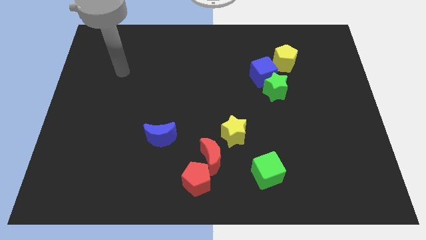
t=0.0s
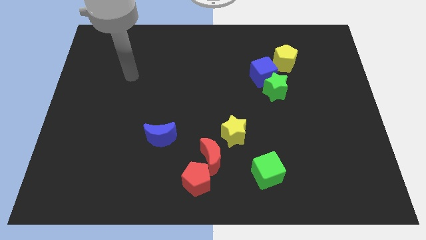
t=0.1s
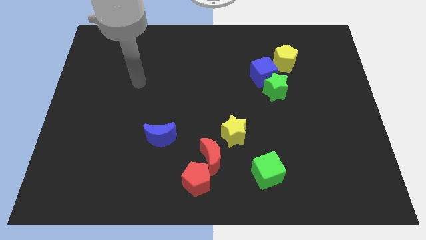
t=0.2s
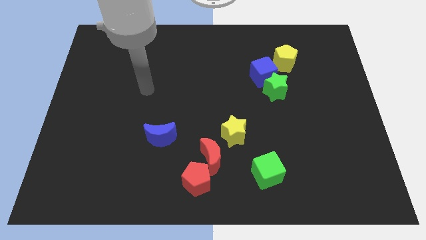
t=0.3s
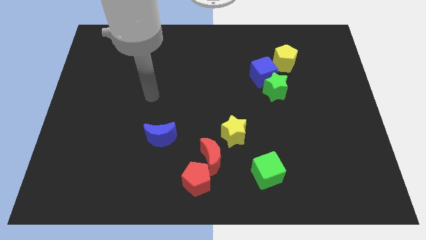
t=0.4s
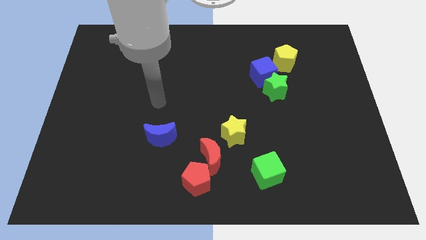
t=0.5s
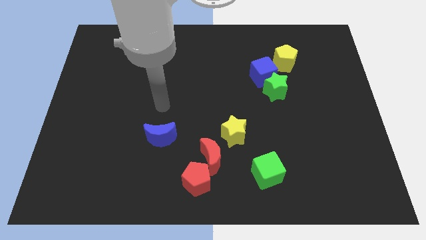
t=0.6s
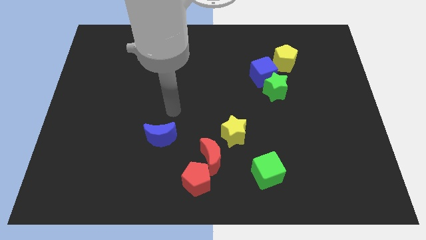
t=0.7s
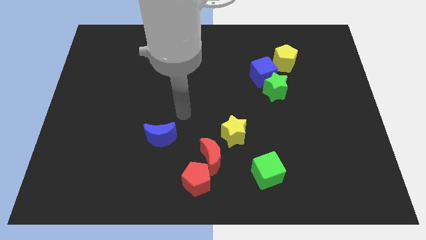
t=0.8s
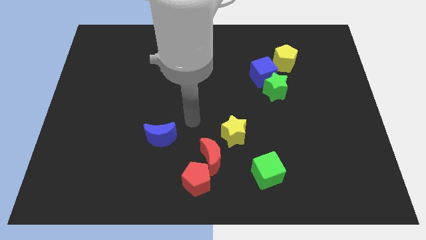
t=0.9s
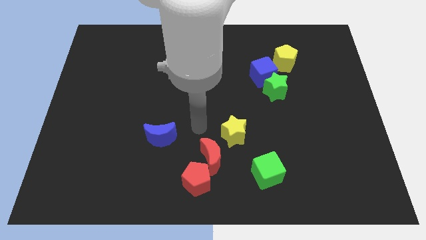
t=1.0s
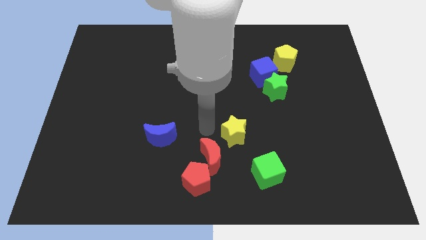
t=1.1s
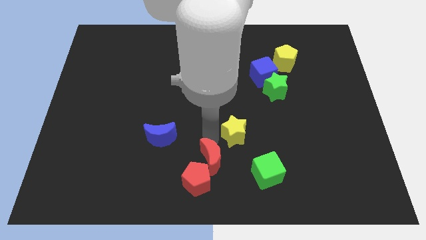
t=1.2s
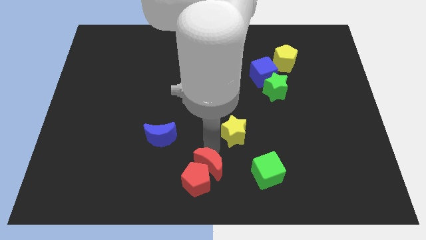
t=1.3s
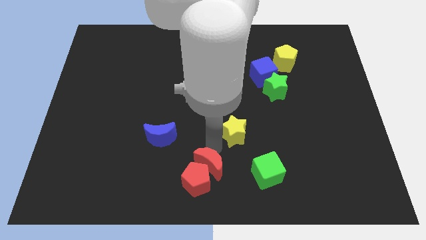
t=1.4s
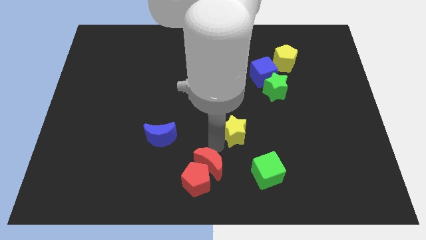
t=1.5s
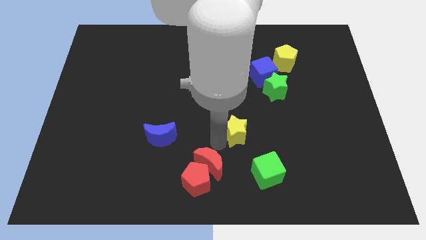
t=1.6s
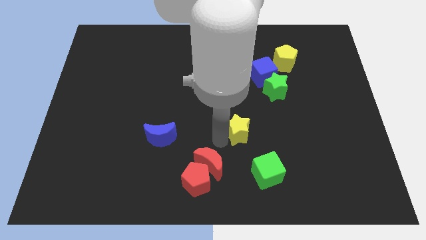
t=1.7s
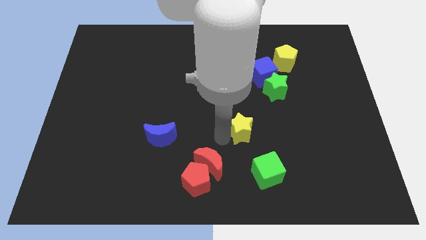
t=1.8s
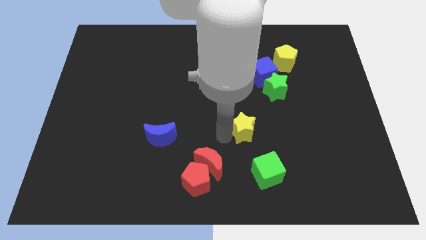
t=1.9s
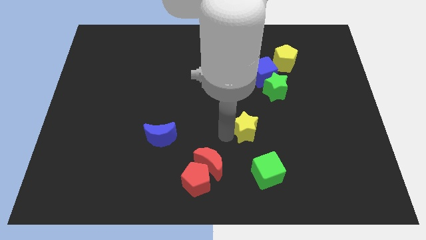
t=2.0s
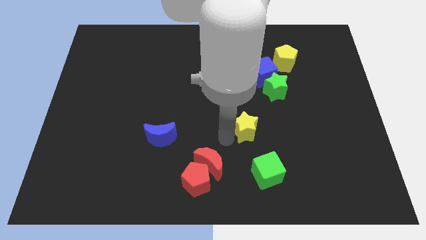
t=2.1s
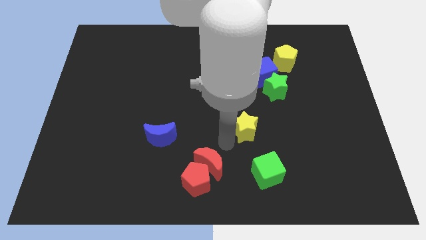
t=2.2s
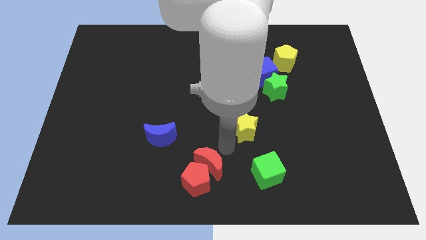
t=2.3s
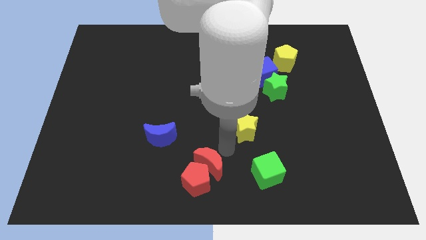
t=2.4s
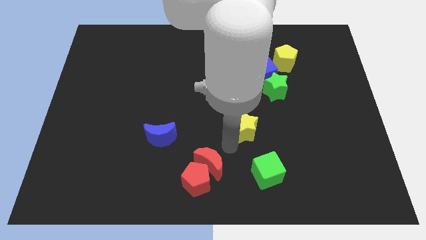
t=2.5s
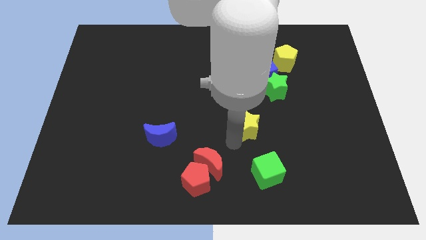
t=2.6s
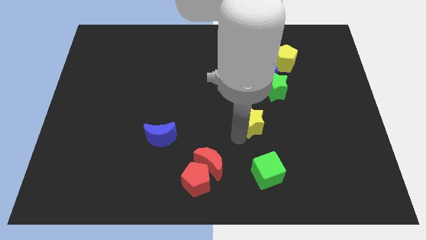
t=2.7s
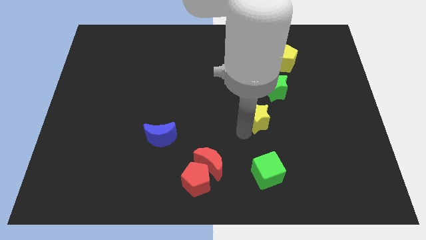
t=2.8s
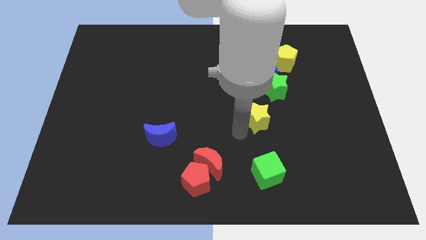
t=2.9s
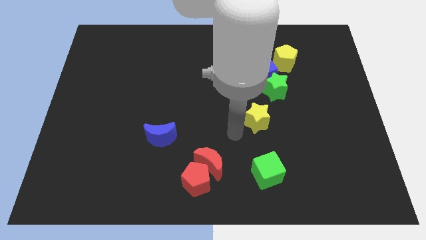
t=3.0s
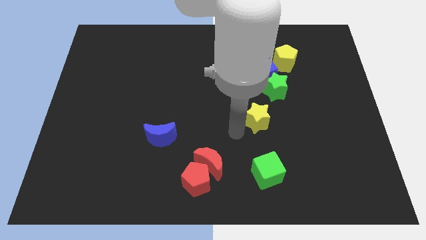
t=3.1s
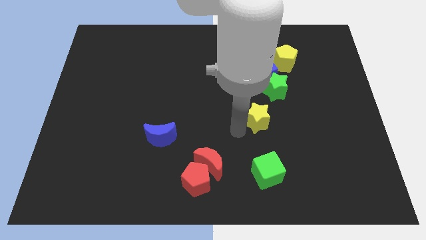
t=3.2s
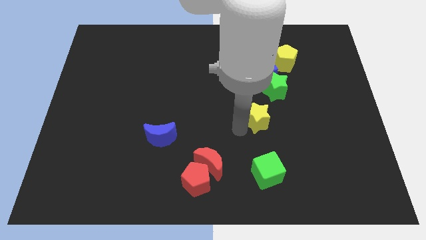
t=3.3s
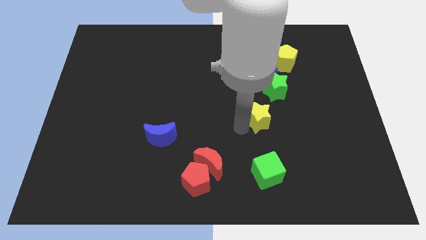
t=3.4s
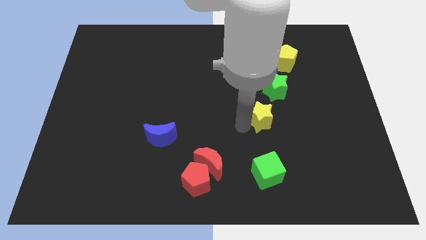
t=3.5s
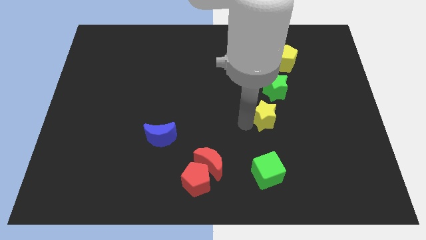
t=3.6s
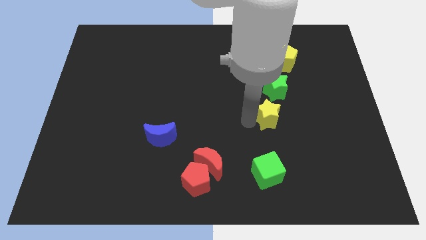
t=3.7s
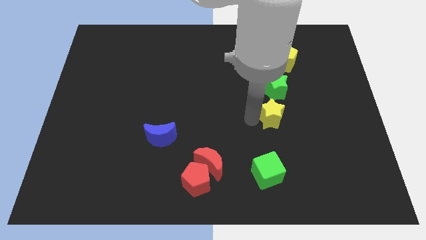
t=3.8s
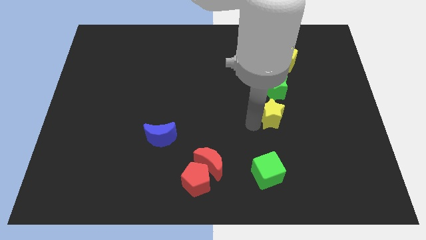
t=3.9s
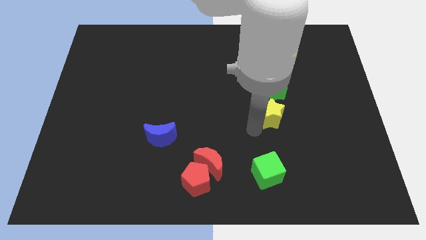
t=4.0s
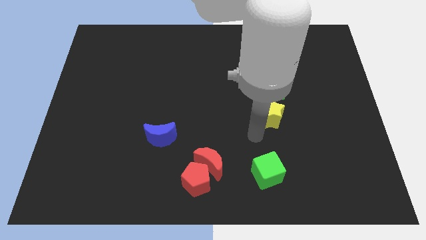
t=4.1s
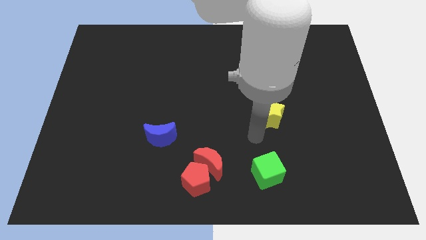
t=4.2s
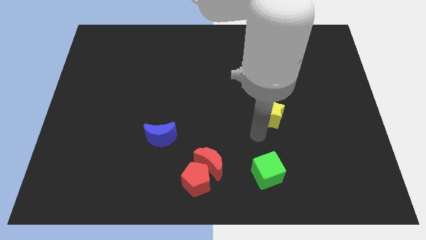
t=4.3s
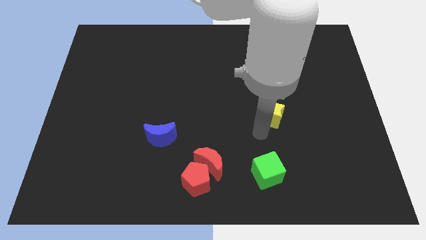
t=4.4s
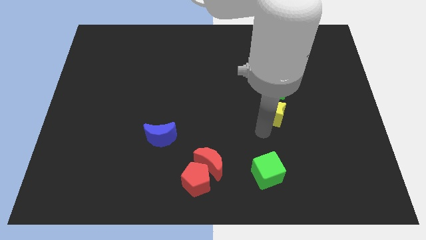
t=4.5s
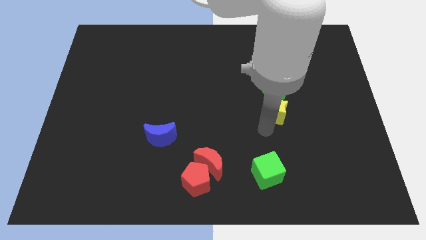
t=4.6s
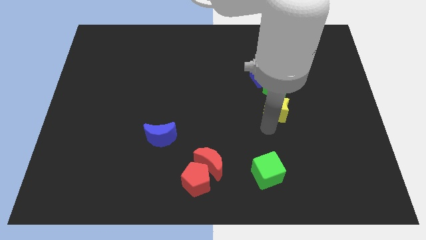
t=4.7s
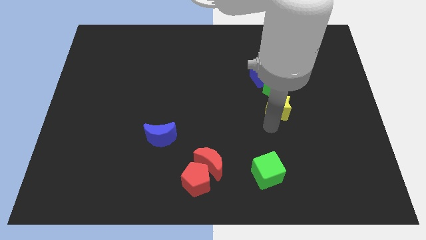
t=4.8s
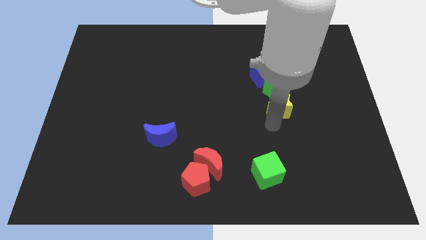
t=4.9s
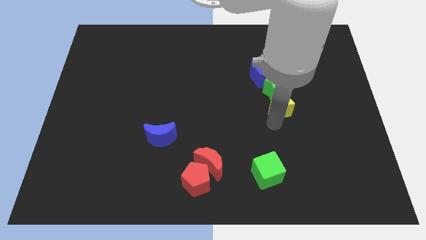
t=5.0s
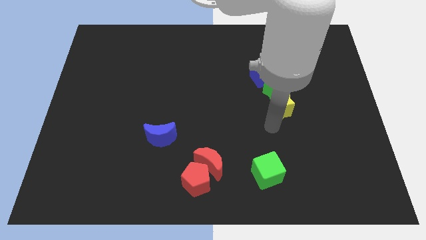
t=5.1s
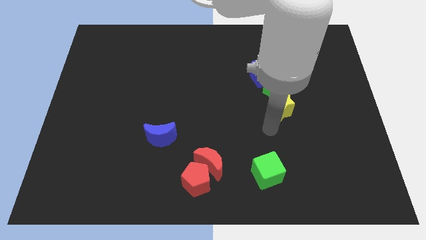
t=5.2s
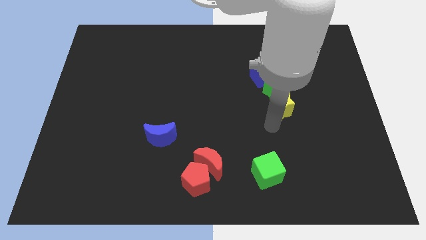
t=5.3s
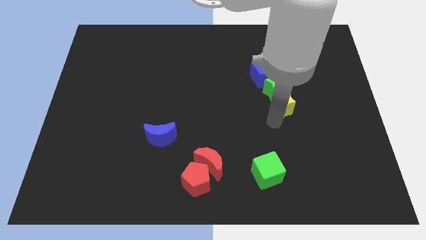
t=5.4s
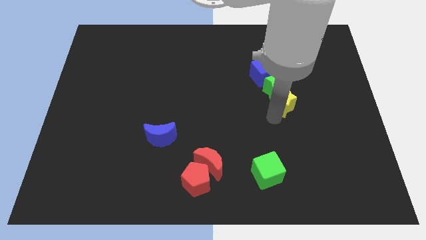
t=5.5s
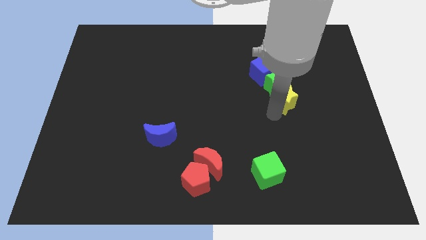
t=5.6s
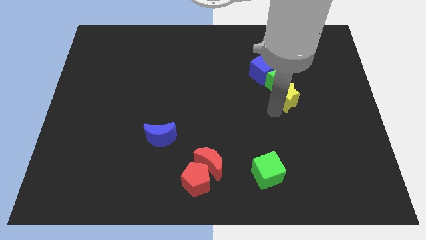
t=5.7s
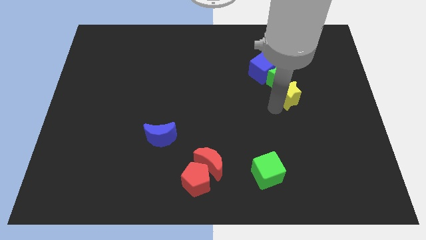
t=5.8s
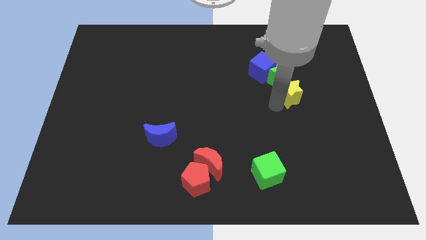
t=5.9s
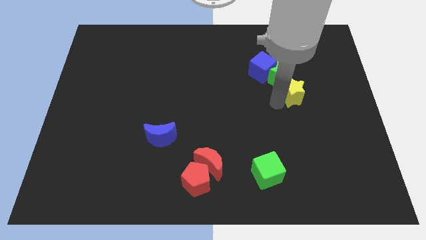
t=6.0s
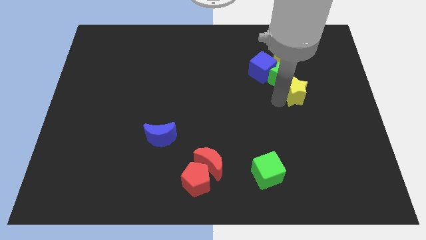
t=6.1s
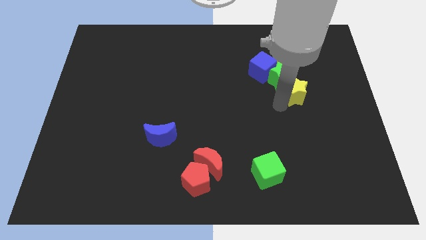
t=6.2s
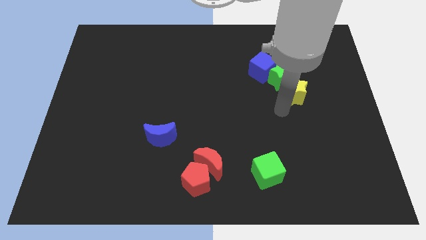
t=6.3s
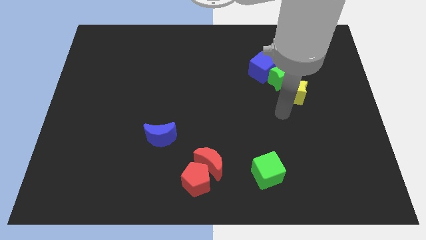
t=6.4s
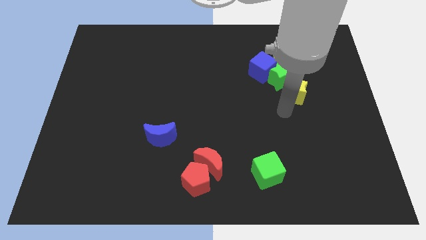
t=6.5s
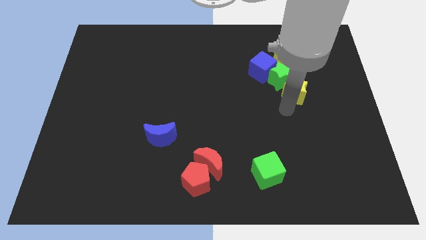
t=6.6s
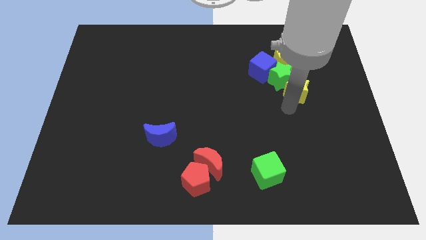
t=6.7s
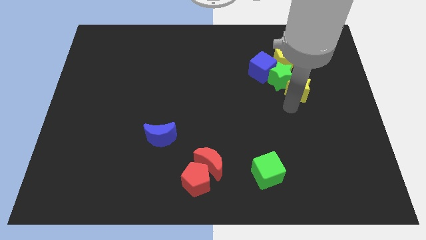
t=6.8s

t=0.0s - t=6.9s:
push the yellow star up and then right

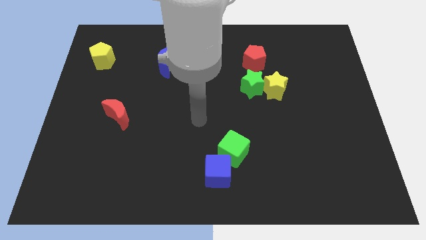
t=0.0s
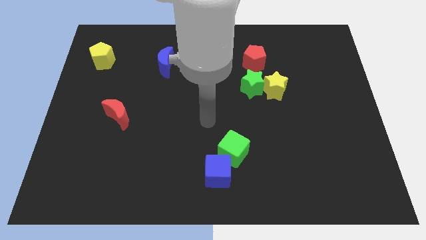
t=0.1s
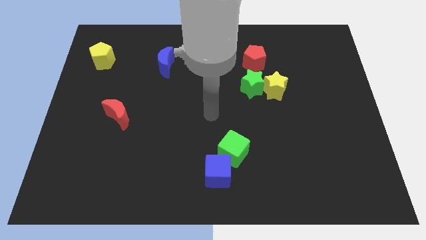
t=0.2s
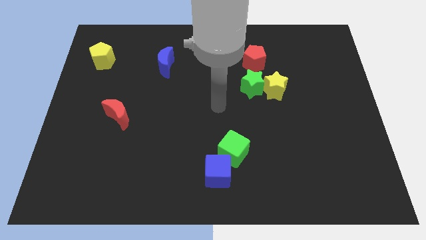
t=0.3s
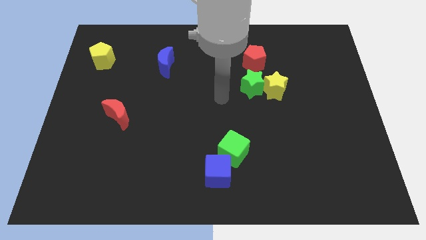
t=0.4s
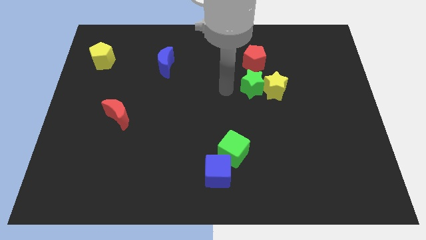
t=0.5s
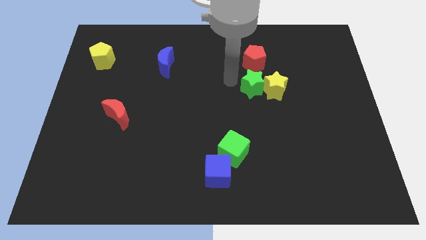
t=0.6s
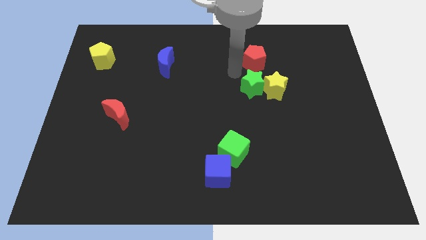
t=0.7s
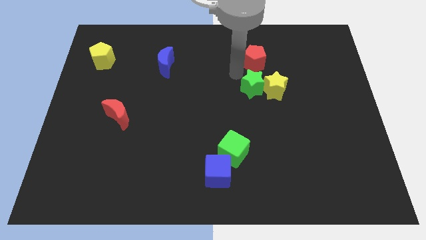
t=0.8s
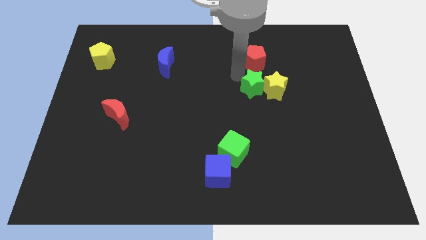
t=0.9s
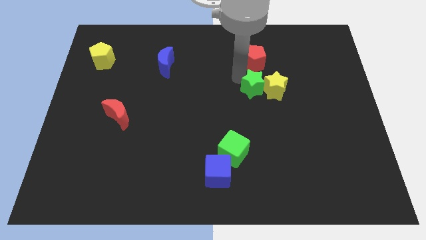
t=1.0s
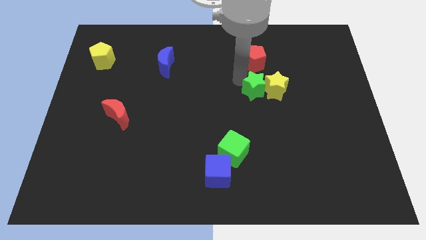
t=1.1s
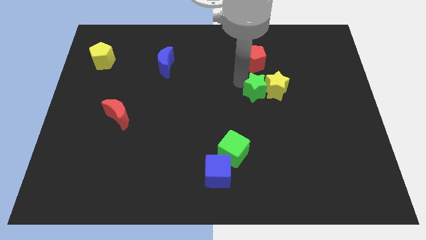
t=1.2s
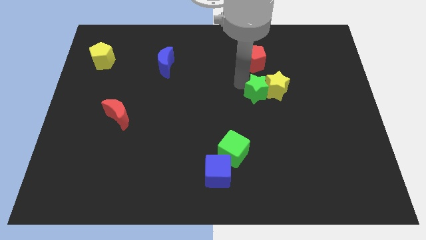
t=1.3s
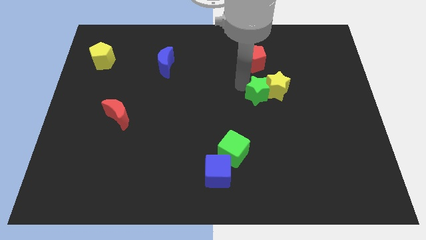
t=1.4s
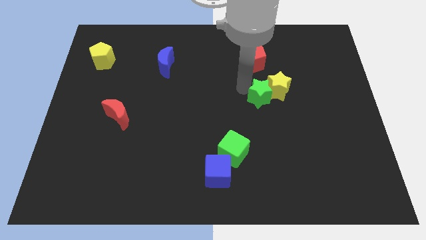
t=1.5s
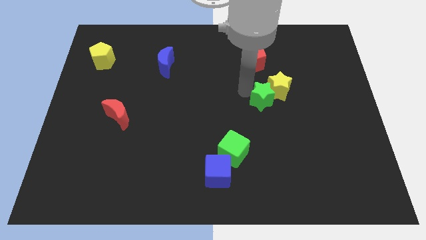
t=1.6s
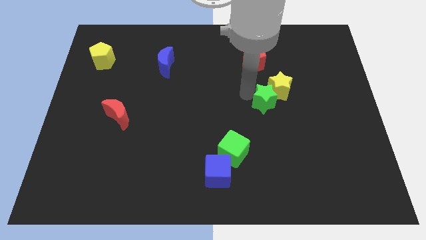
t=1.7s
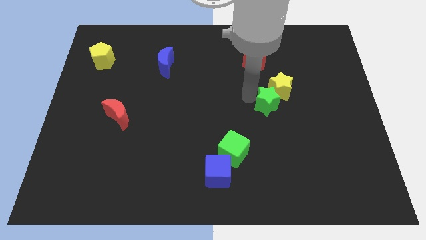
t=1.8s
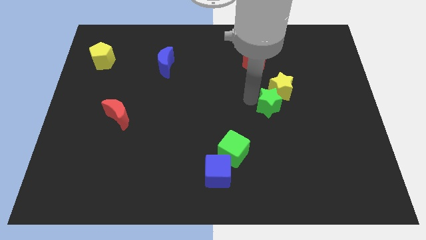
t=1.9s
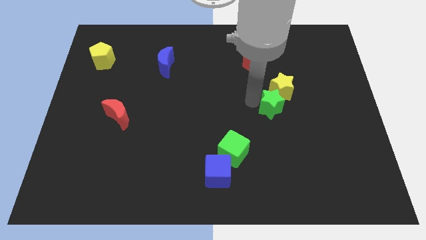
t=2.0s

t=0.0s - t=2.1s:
slightly slide the green star downwards and to the right diagonally
